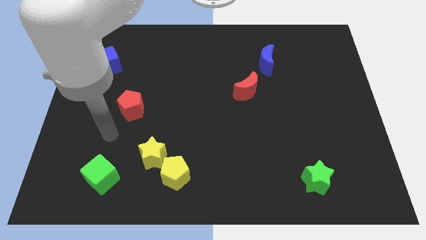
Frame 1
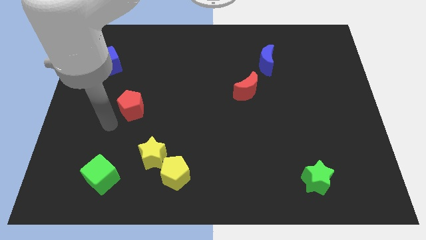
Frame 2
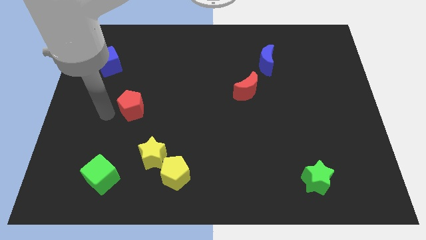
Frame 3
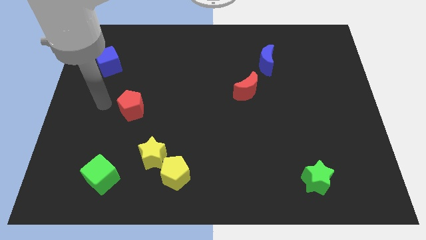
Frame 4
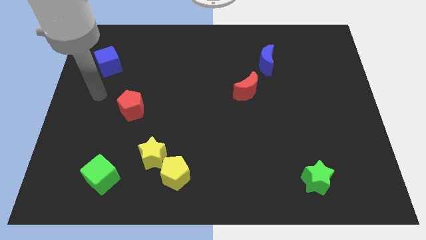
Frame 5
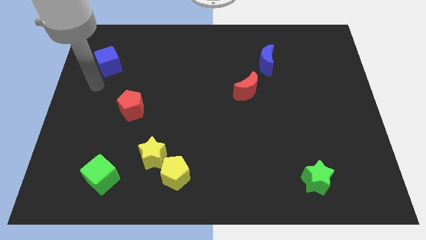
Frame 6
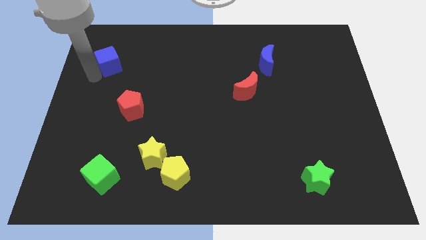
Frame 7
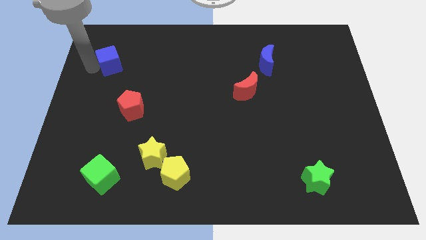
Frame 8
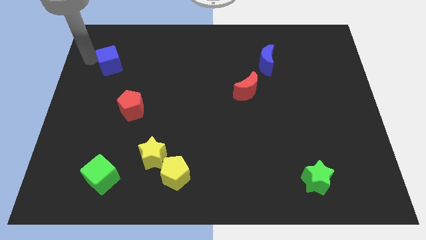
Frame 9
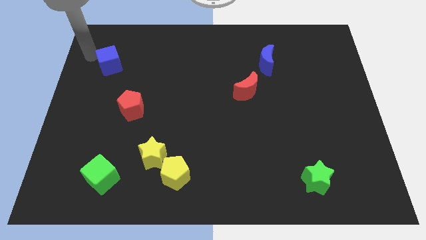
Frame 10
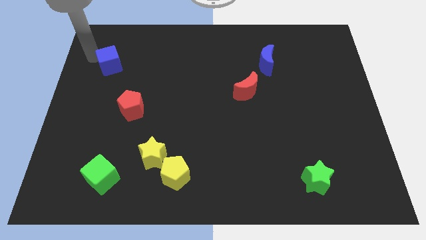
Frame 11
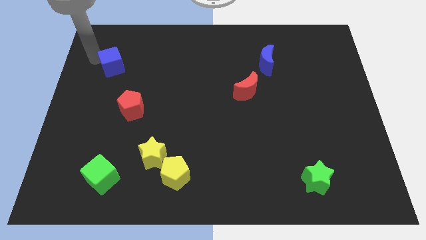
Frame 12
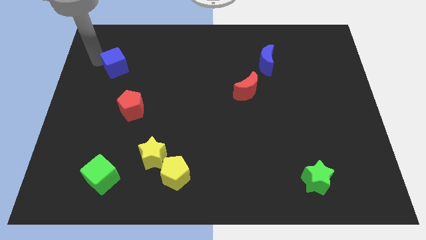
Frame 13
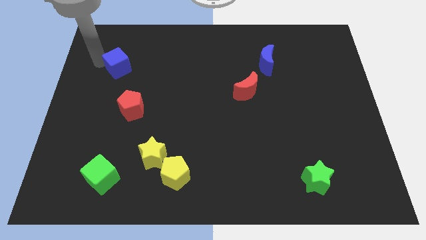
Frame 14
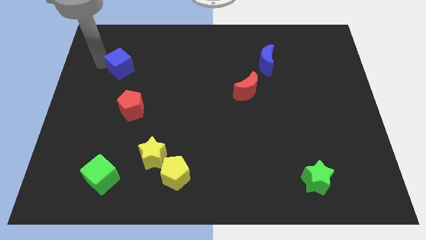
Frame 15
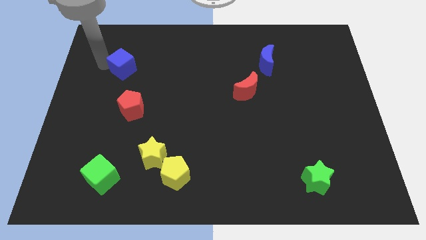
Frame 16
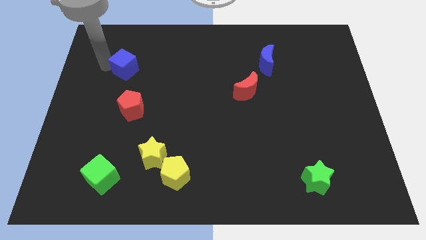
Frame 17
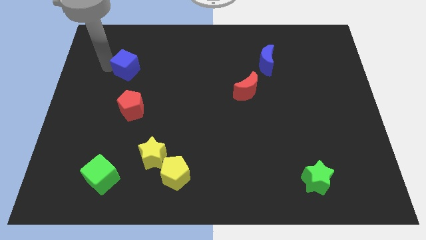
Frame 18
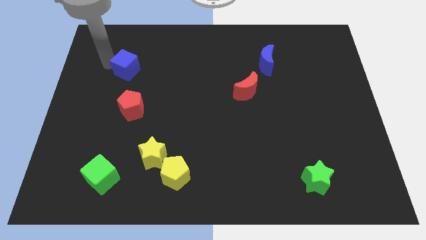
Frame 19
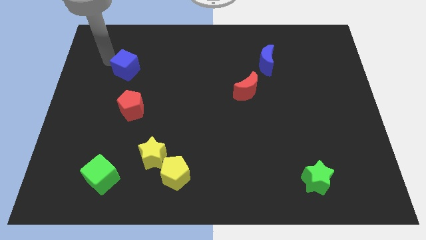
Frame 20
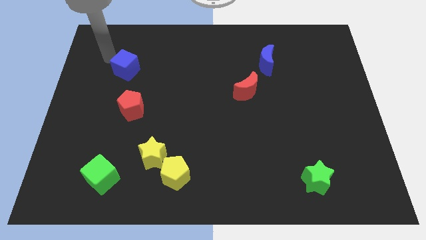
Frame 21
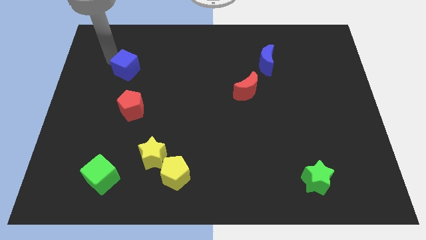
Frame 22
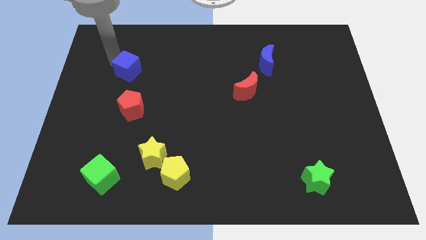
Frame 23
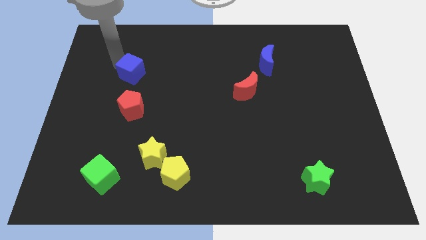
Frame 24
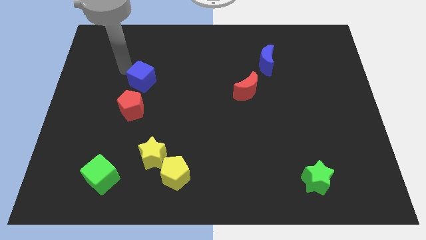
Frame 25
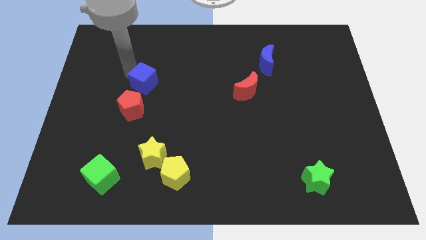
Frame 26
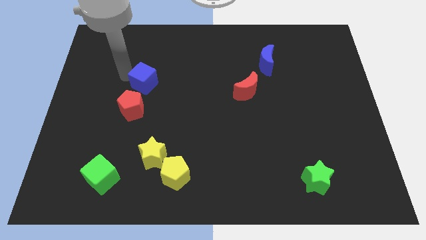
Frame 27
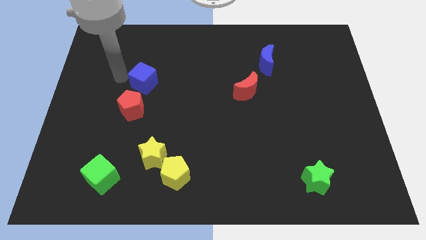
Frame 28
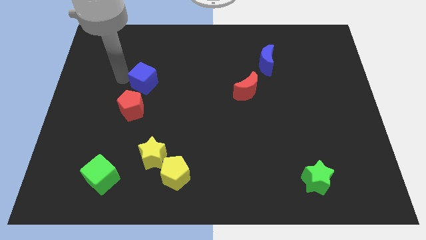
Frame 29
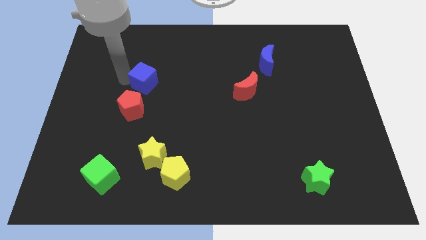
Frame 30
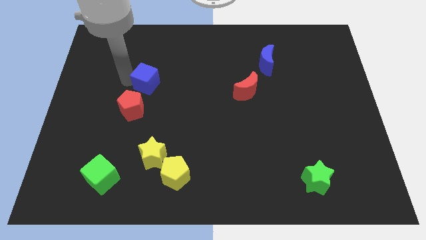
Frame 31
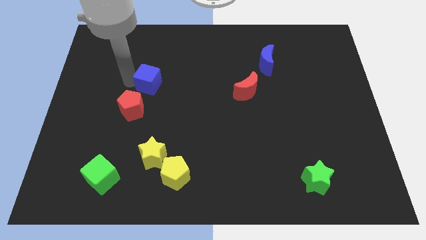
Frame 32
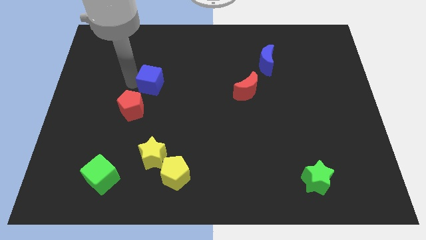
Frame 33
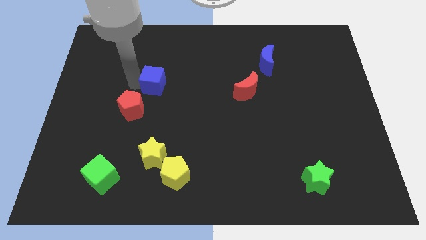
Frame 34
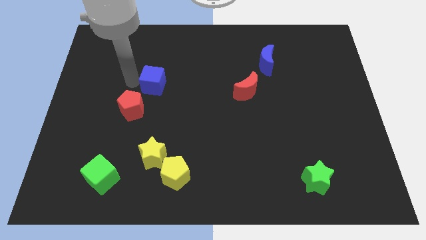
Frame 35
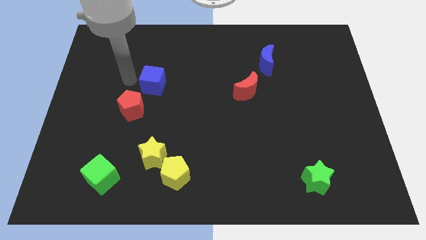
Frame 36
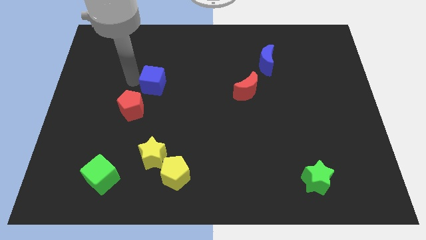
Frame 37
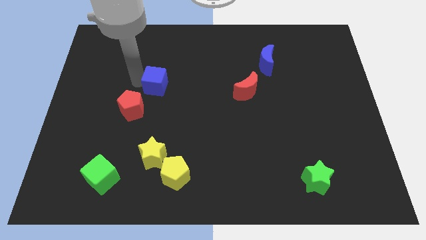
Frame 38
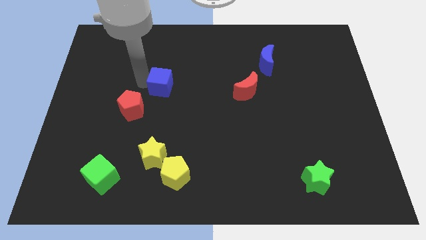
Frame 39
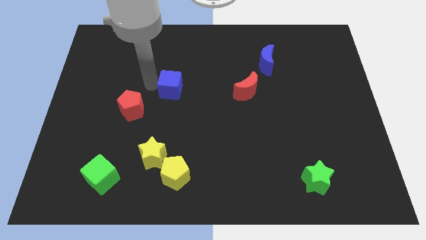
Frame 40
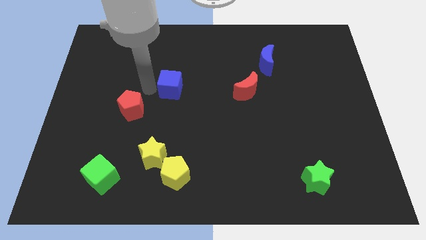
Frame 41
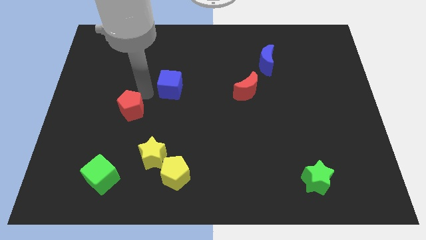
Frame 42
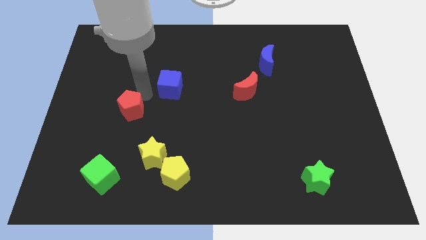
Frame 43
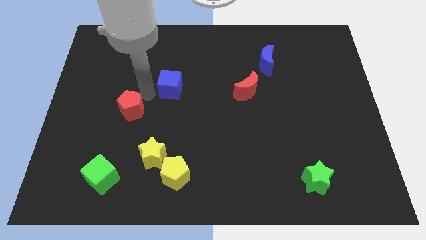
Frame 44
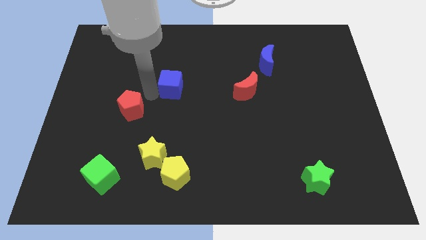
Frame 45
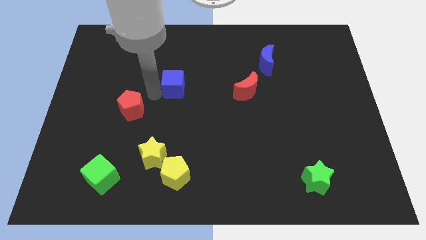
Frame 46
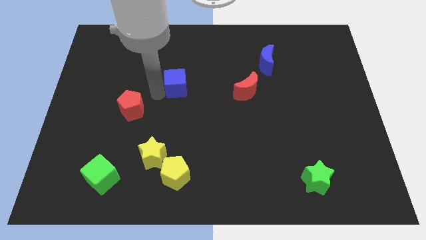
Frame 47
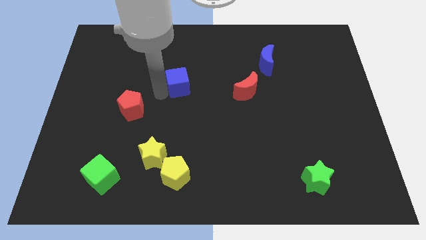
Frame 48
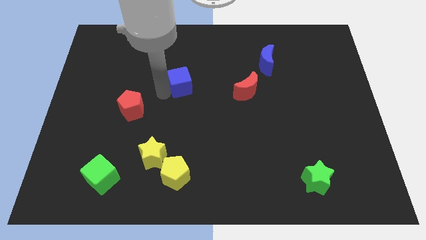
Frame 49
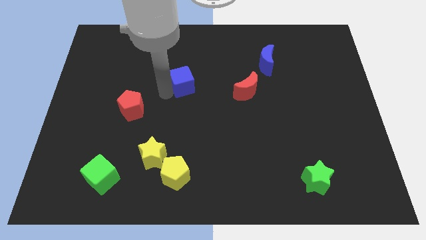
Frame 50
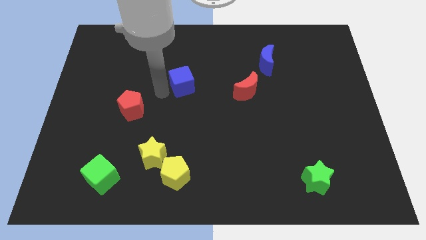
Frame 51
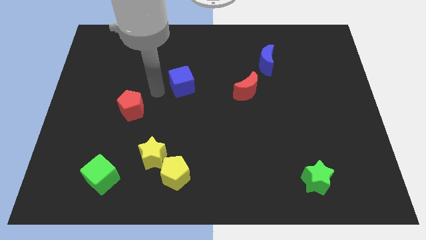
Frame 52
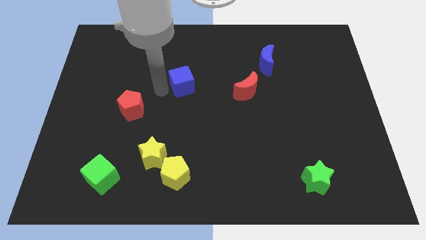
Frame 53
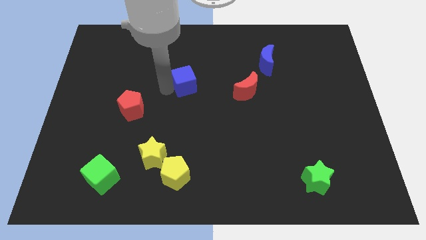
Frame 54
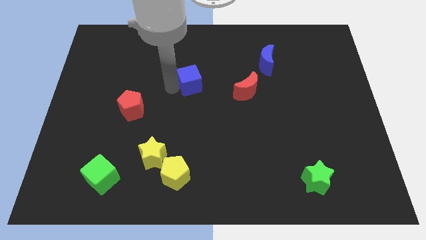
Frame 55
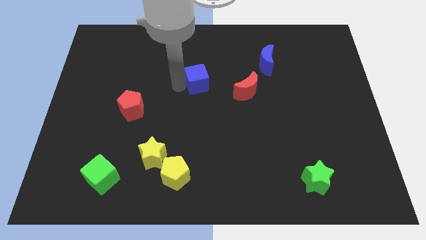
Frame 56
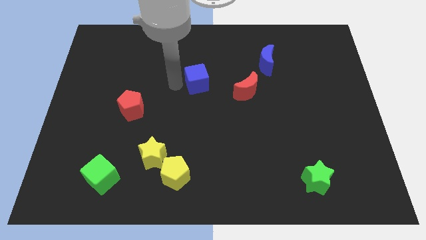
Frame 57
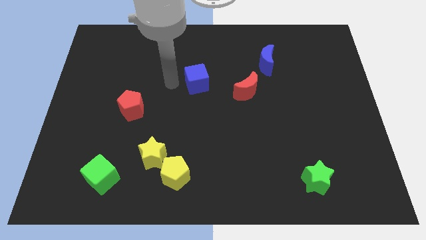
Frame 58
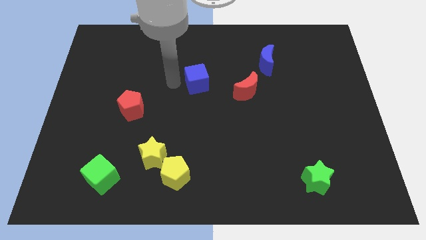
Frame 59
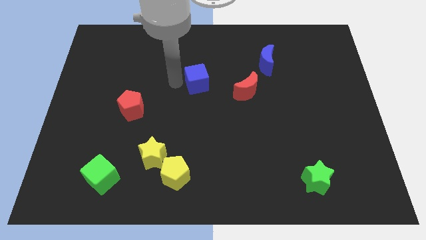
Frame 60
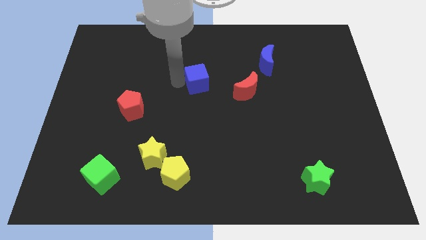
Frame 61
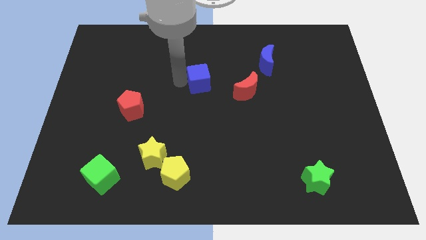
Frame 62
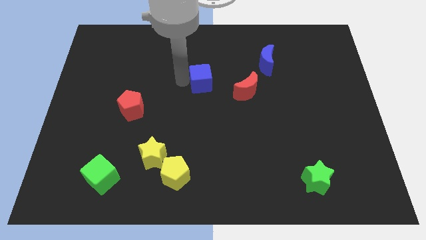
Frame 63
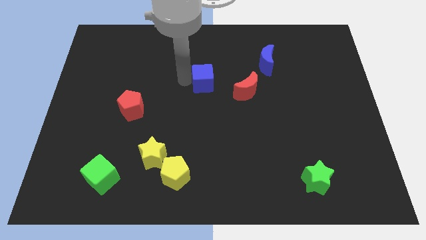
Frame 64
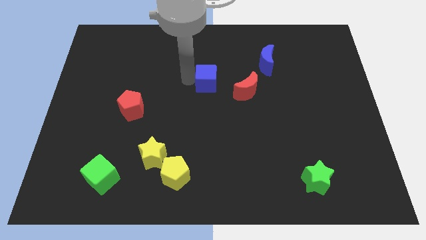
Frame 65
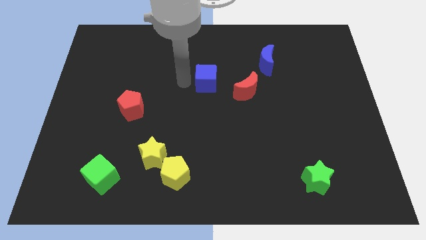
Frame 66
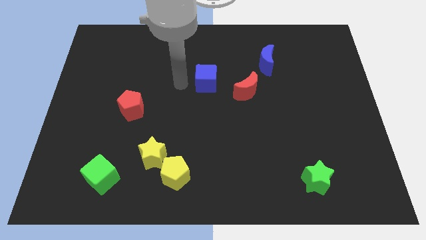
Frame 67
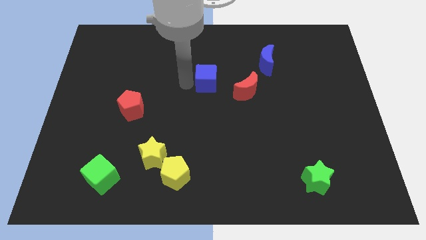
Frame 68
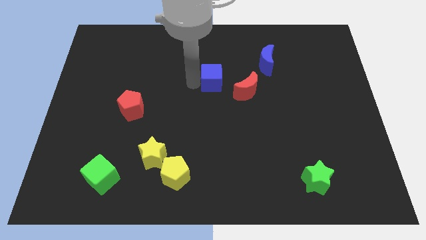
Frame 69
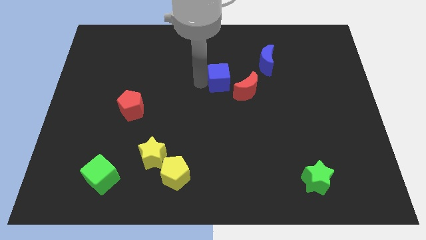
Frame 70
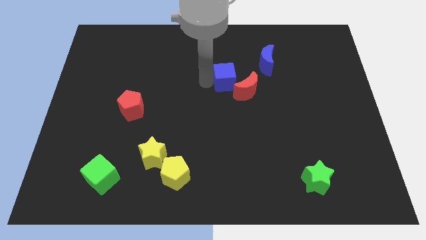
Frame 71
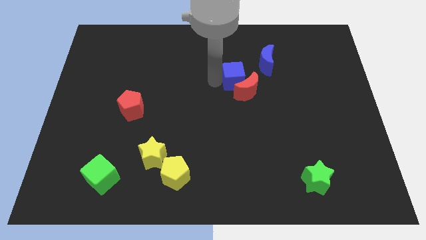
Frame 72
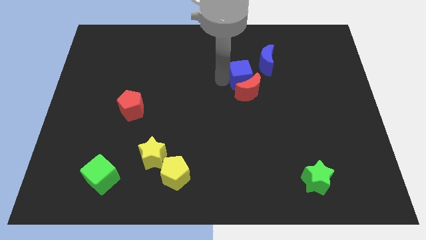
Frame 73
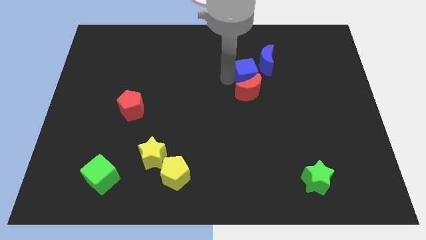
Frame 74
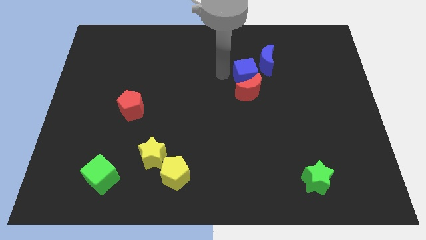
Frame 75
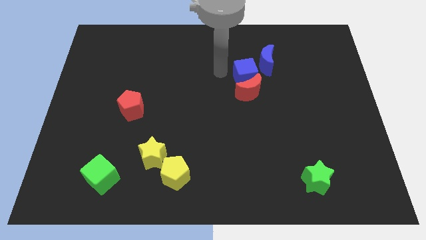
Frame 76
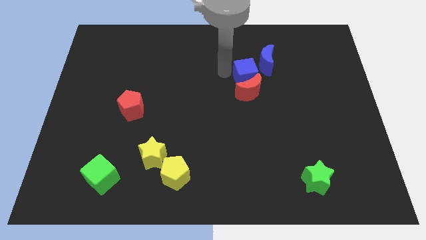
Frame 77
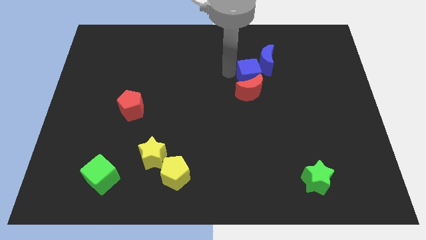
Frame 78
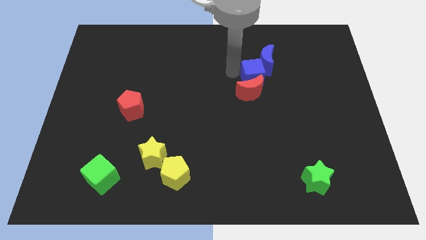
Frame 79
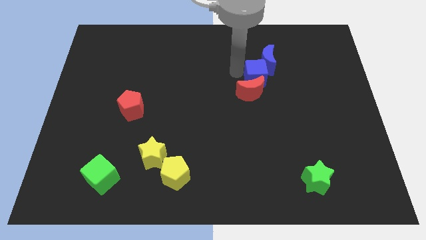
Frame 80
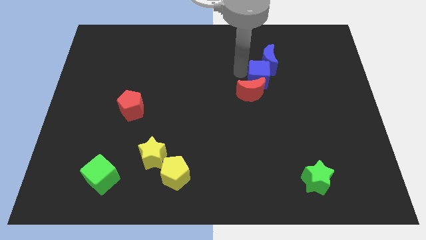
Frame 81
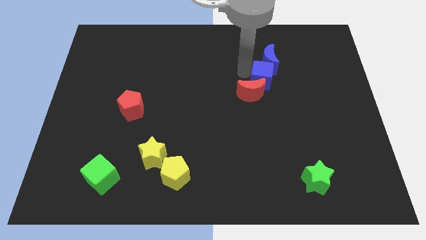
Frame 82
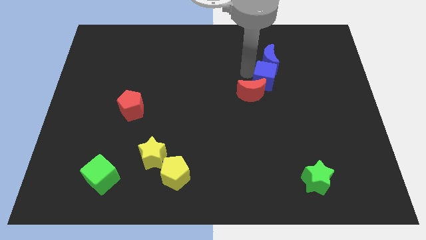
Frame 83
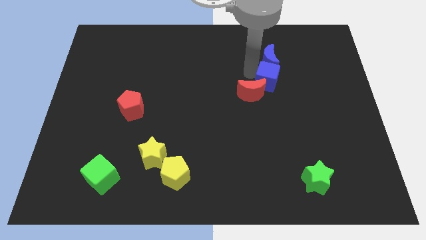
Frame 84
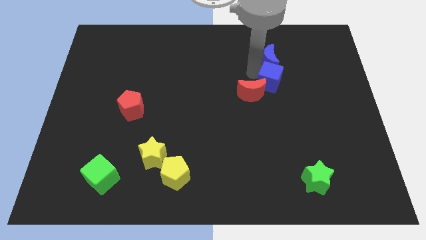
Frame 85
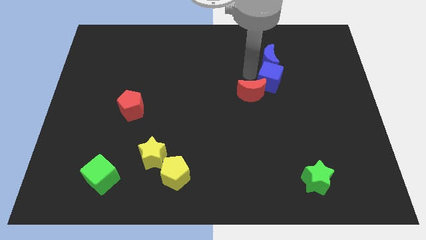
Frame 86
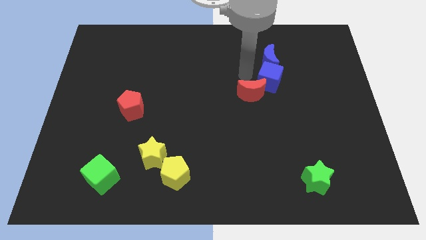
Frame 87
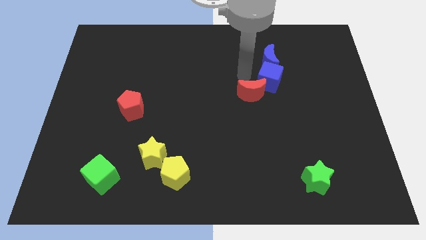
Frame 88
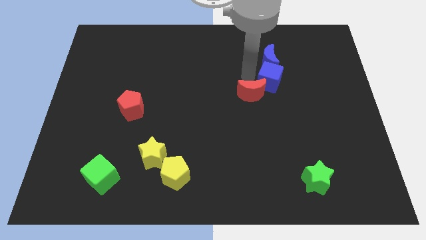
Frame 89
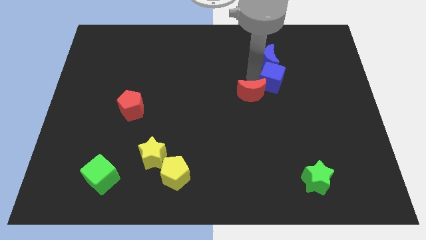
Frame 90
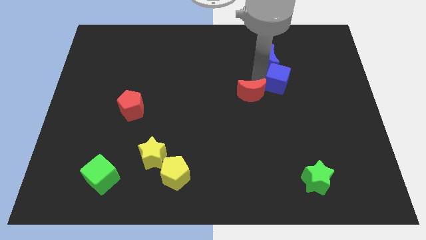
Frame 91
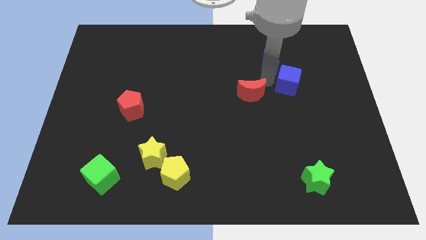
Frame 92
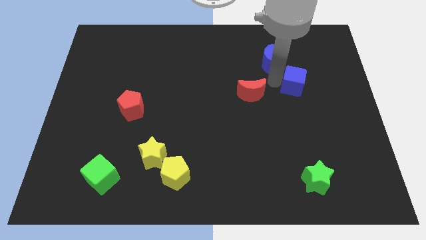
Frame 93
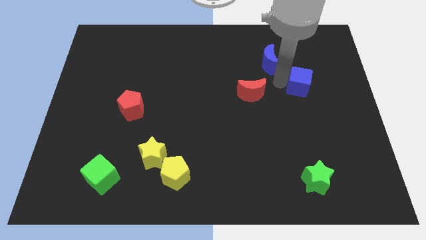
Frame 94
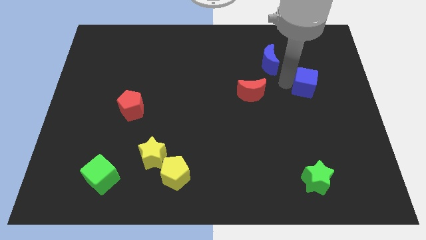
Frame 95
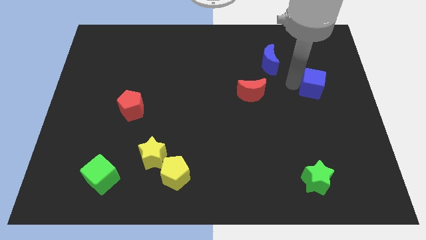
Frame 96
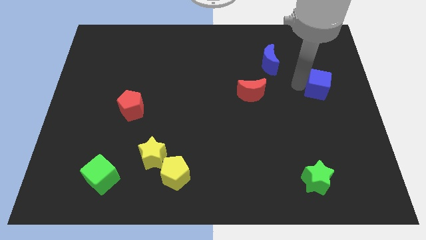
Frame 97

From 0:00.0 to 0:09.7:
put the blue cube to the center right
